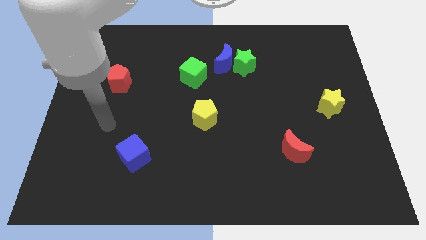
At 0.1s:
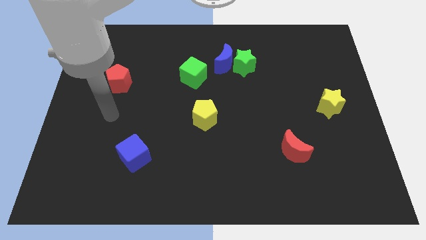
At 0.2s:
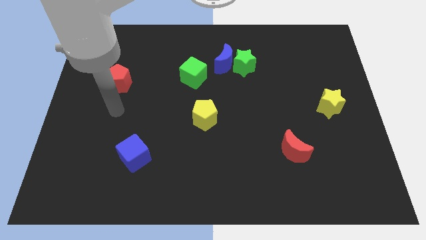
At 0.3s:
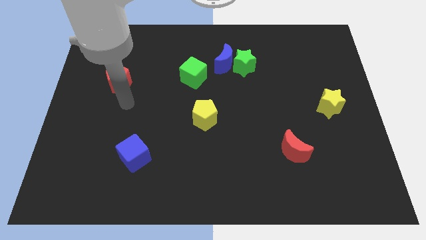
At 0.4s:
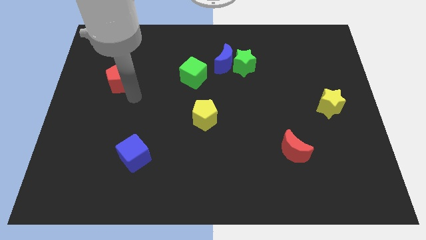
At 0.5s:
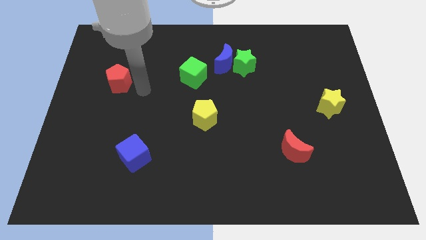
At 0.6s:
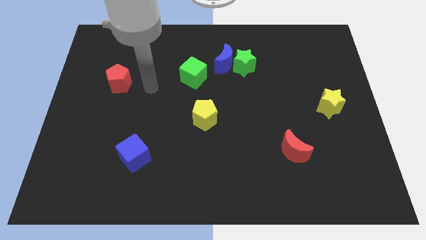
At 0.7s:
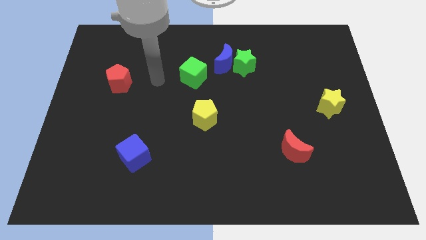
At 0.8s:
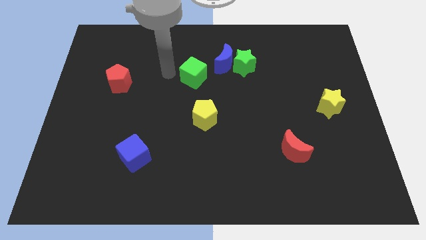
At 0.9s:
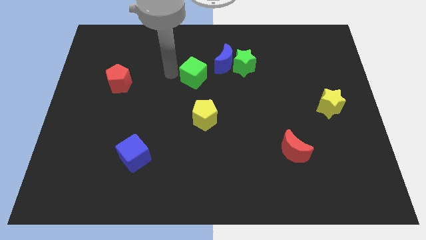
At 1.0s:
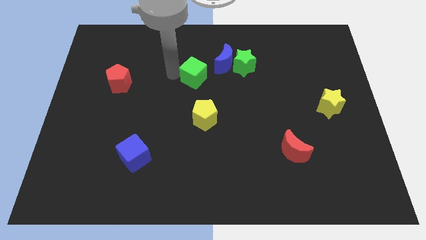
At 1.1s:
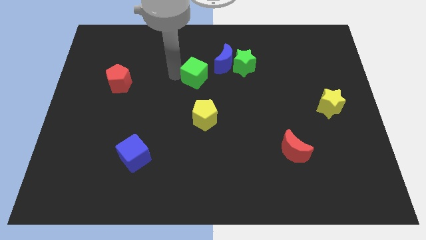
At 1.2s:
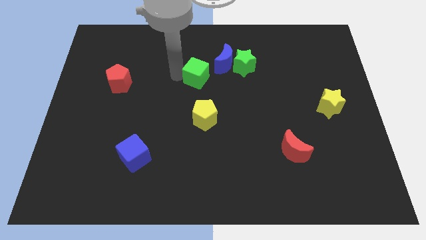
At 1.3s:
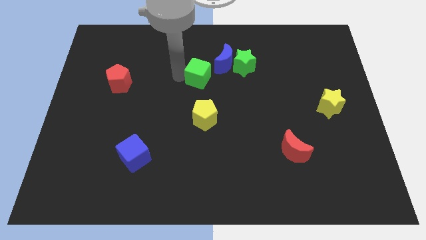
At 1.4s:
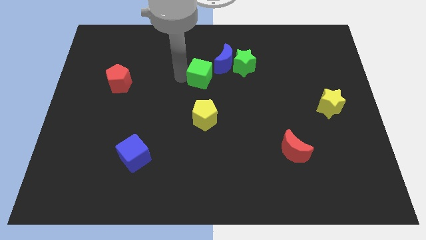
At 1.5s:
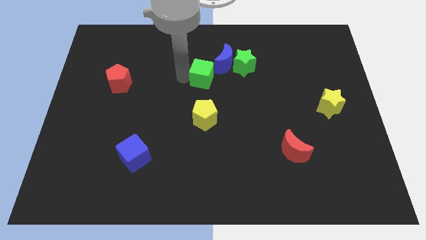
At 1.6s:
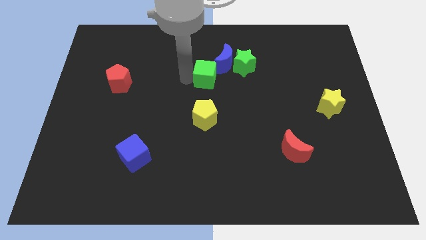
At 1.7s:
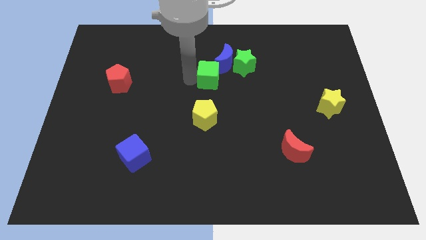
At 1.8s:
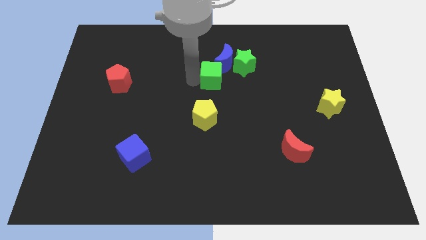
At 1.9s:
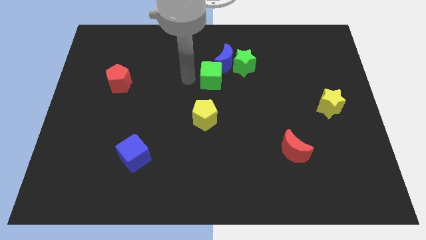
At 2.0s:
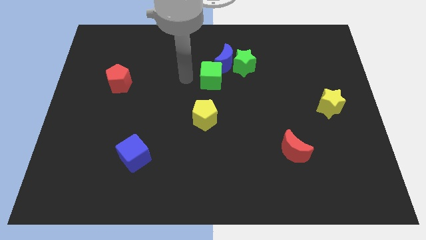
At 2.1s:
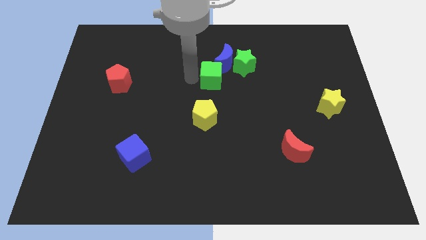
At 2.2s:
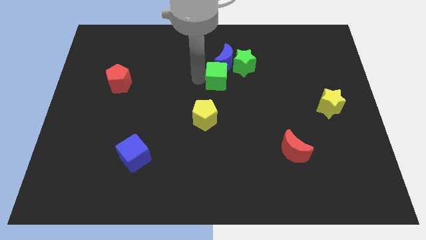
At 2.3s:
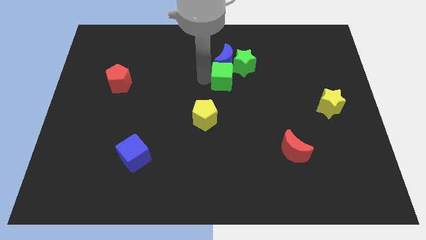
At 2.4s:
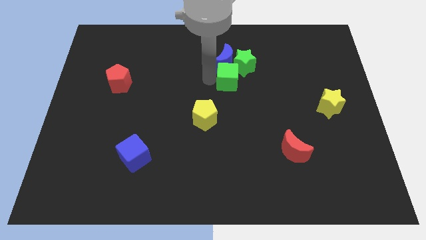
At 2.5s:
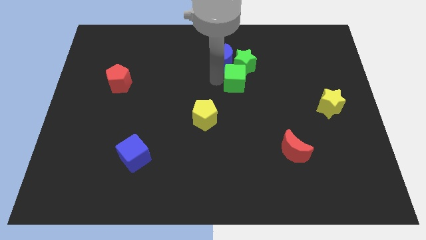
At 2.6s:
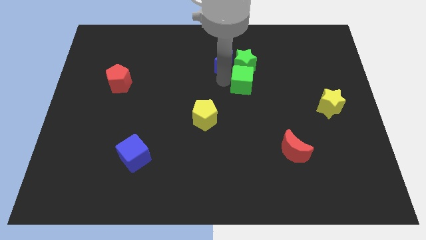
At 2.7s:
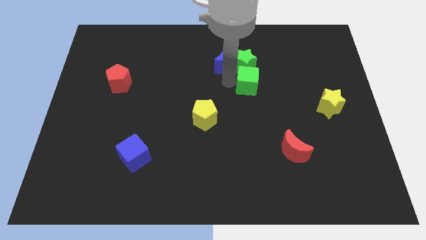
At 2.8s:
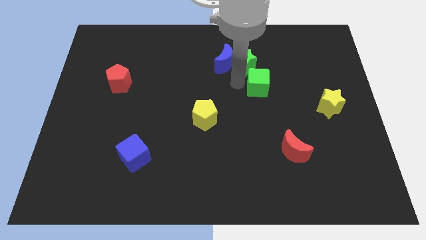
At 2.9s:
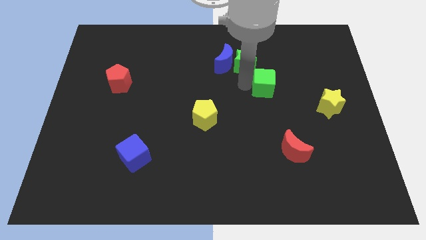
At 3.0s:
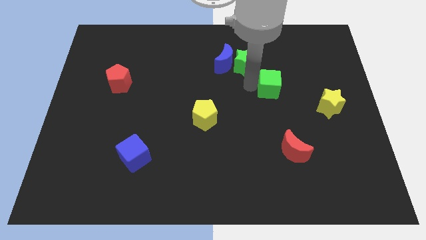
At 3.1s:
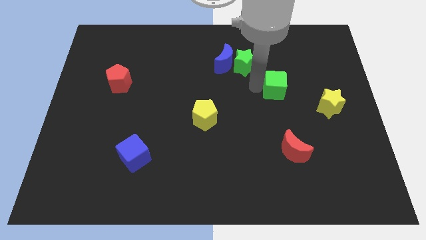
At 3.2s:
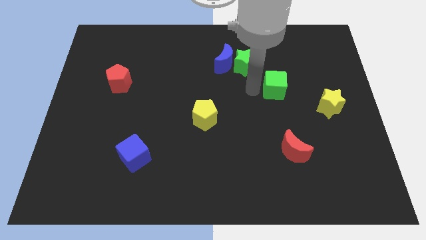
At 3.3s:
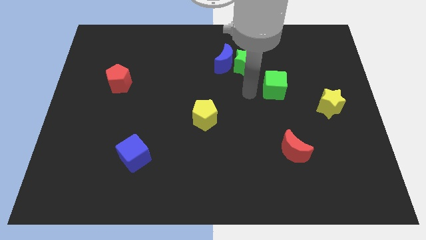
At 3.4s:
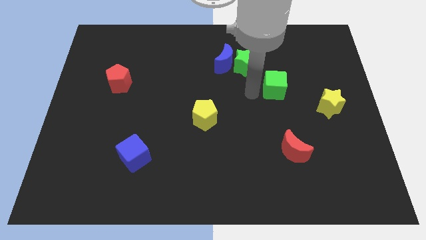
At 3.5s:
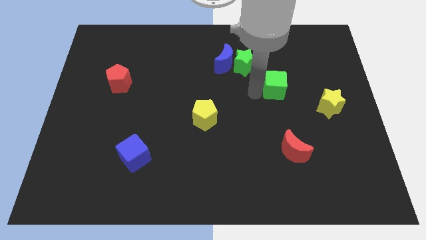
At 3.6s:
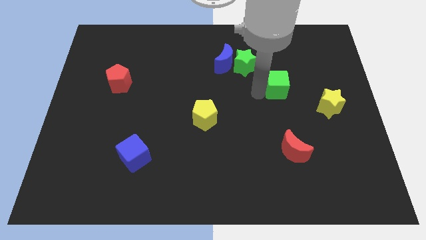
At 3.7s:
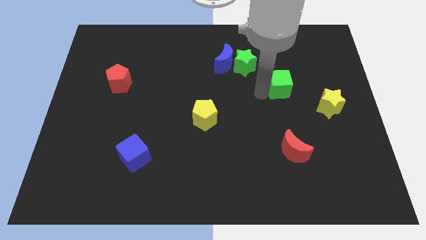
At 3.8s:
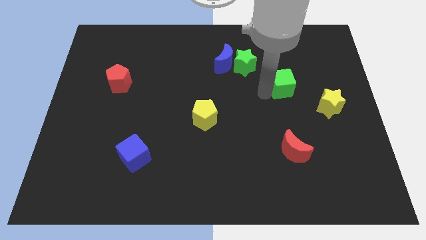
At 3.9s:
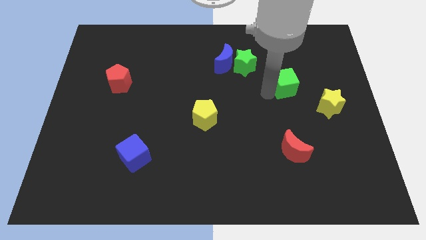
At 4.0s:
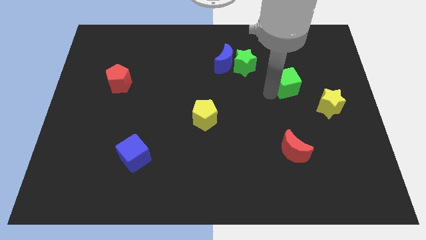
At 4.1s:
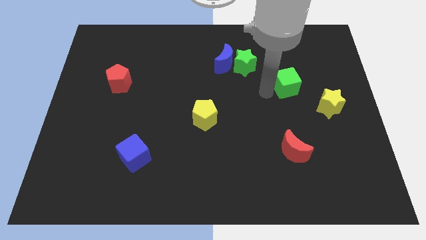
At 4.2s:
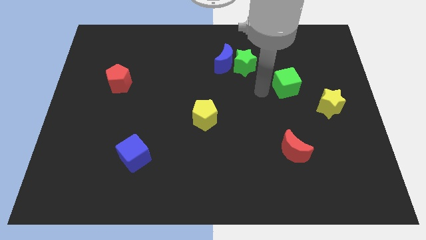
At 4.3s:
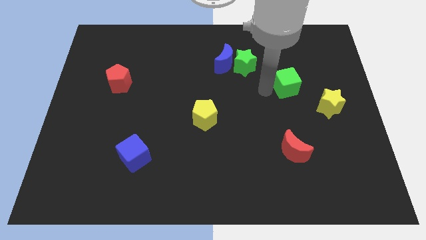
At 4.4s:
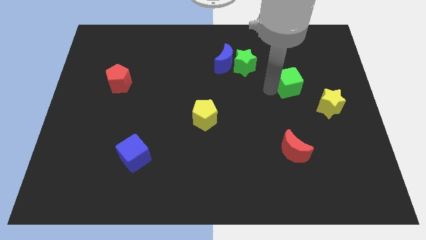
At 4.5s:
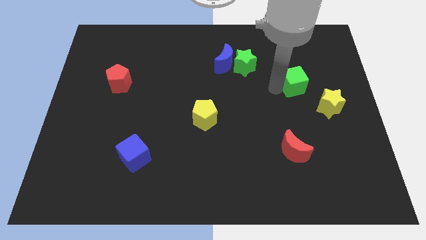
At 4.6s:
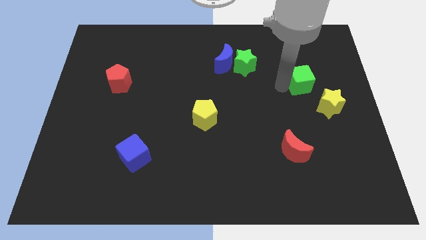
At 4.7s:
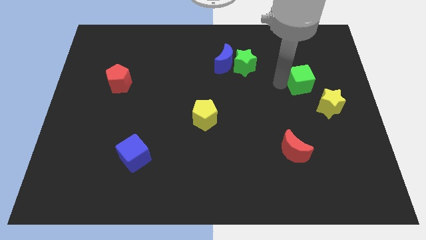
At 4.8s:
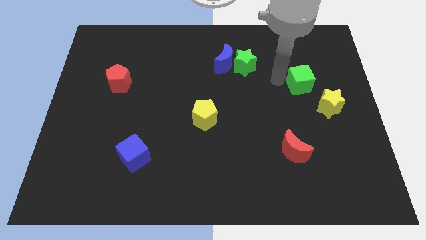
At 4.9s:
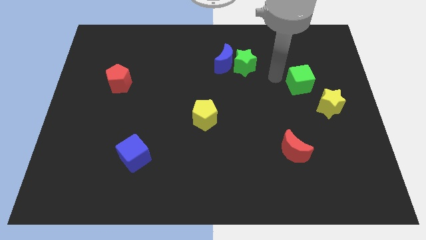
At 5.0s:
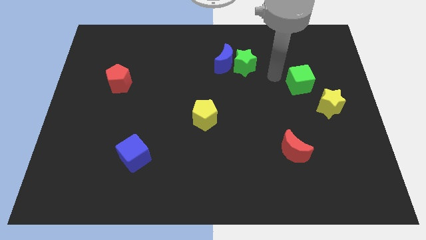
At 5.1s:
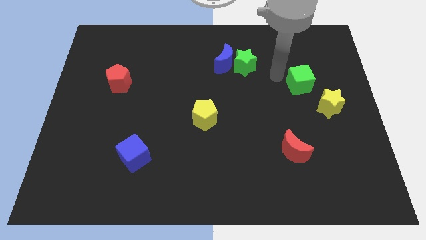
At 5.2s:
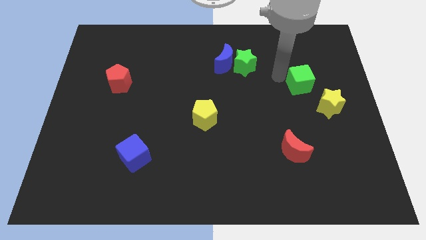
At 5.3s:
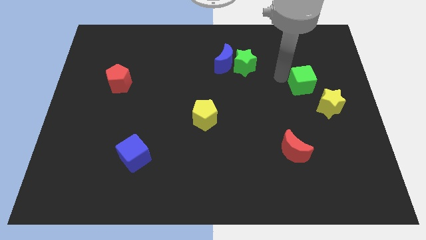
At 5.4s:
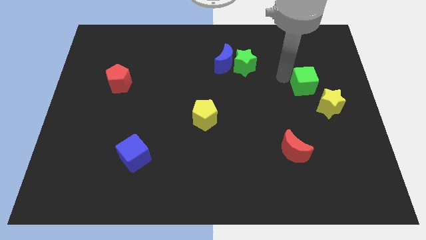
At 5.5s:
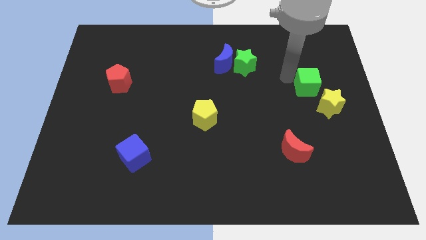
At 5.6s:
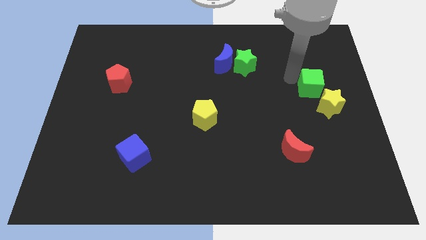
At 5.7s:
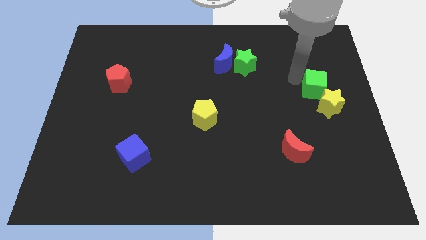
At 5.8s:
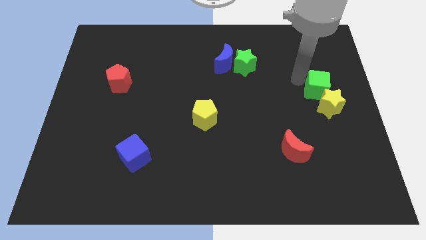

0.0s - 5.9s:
move the green cube to the right side of the board
